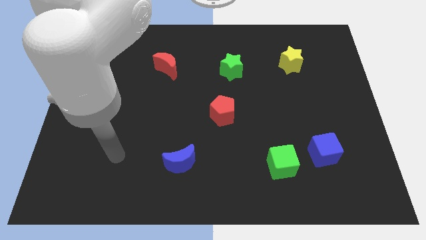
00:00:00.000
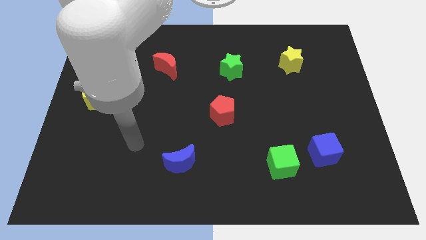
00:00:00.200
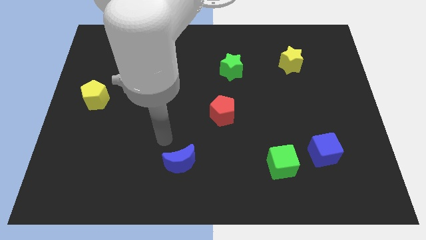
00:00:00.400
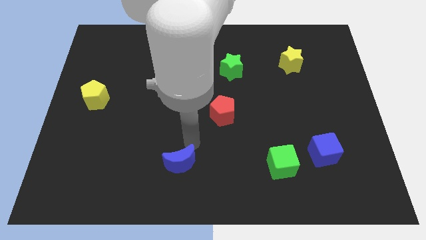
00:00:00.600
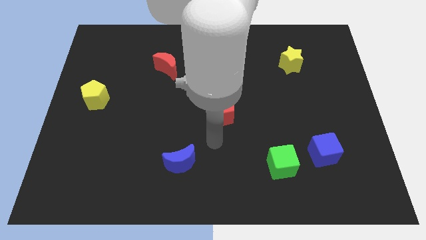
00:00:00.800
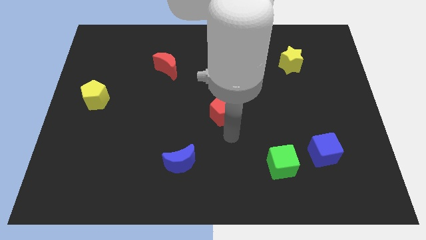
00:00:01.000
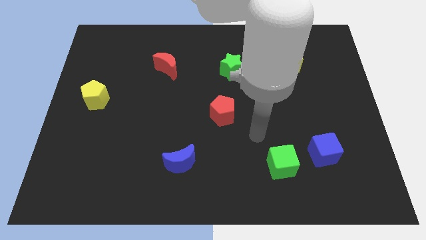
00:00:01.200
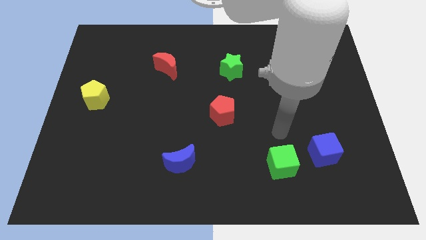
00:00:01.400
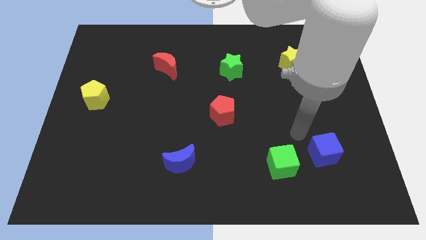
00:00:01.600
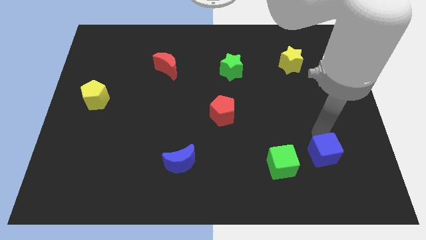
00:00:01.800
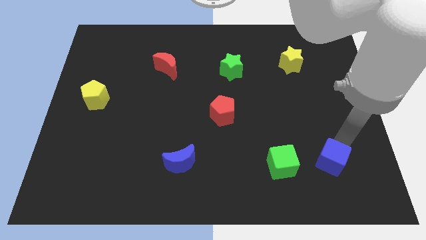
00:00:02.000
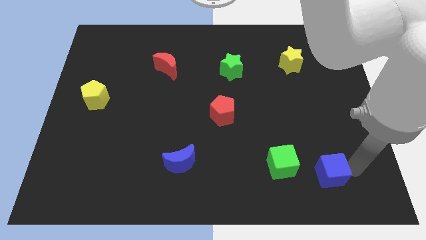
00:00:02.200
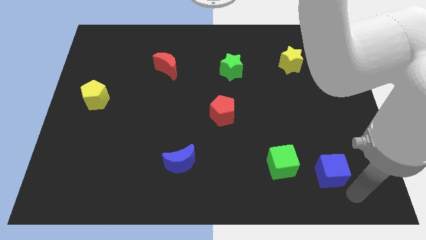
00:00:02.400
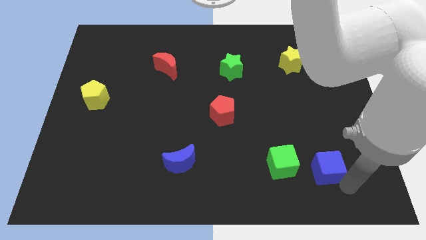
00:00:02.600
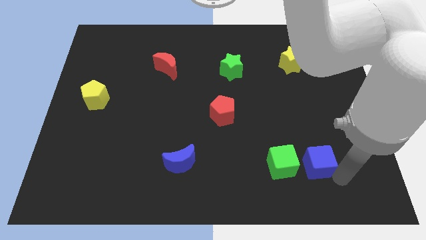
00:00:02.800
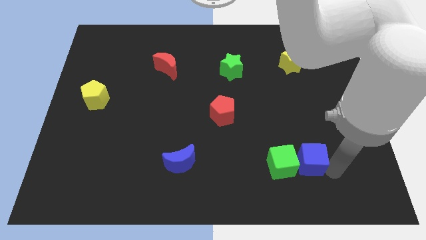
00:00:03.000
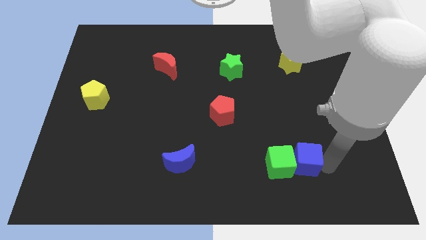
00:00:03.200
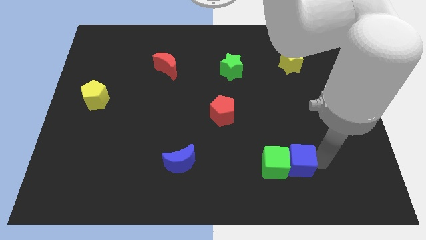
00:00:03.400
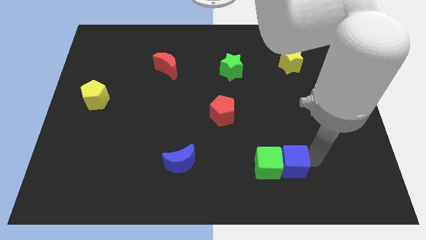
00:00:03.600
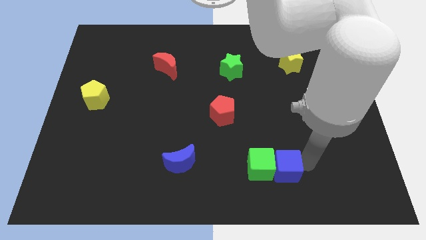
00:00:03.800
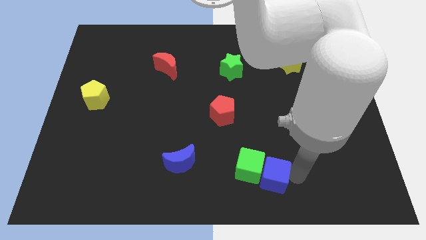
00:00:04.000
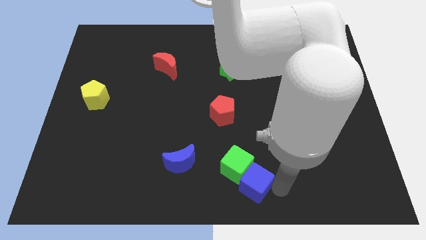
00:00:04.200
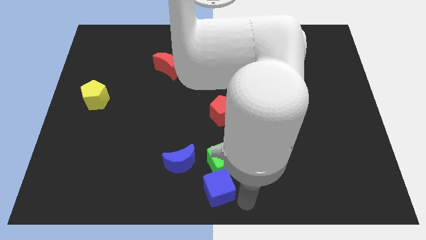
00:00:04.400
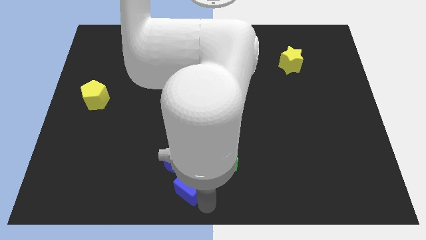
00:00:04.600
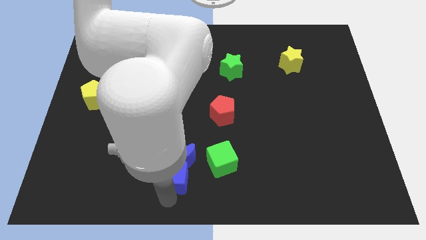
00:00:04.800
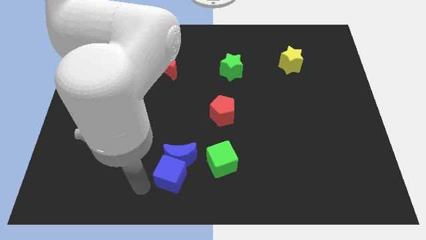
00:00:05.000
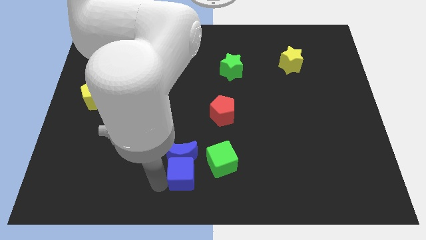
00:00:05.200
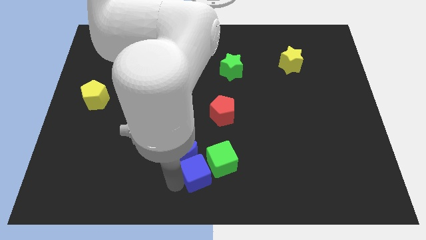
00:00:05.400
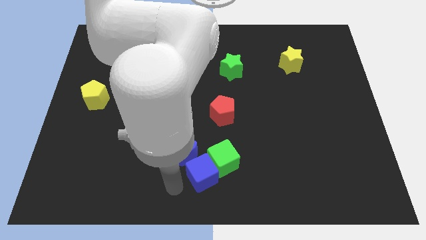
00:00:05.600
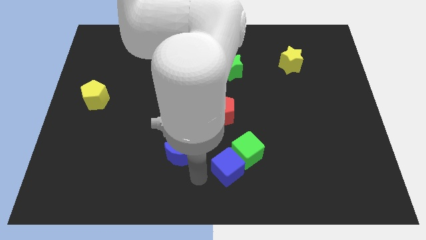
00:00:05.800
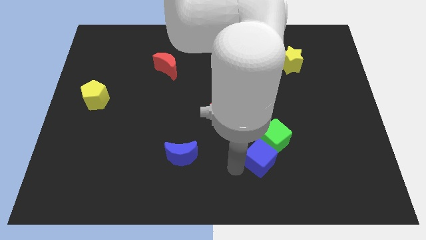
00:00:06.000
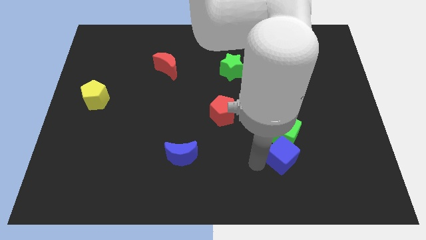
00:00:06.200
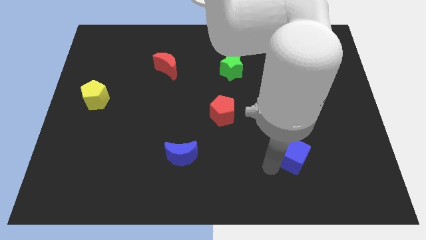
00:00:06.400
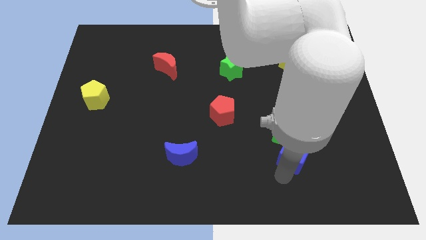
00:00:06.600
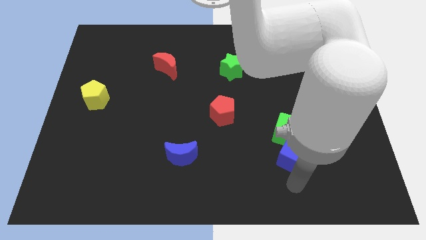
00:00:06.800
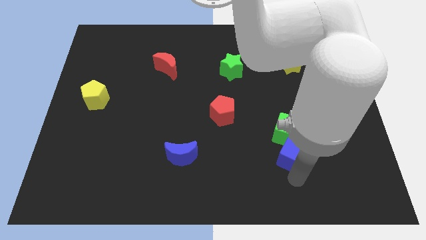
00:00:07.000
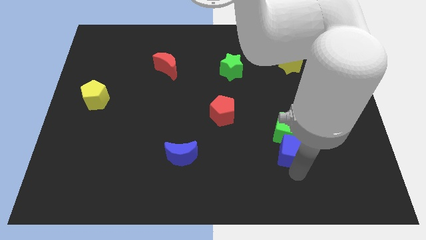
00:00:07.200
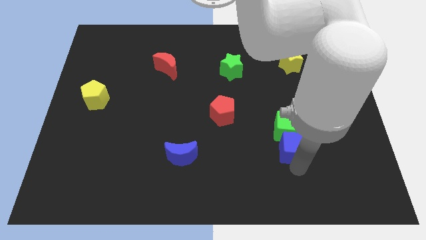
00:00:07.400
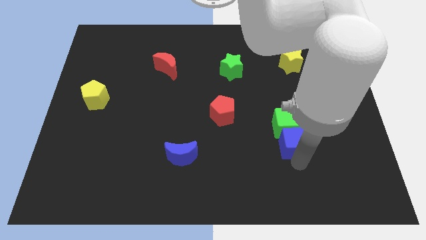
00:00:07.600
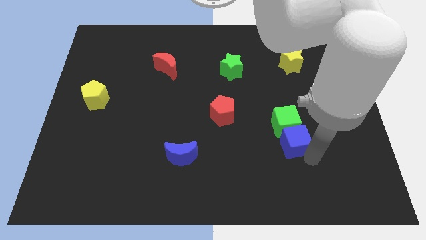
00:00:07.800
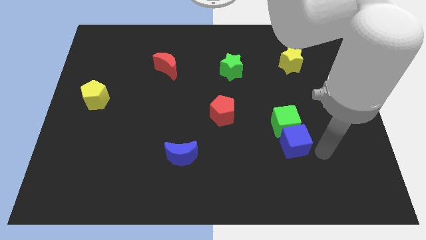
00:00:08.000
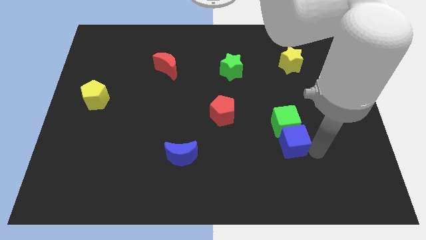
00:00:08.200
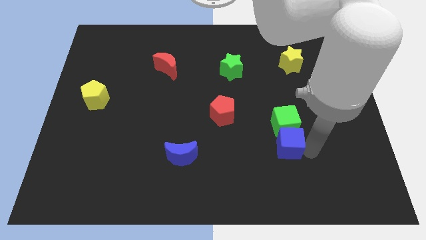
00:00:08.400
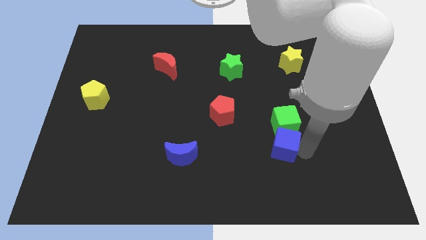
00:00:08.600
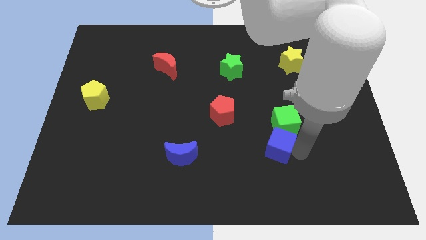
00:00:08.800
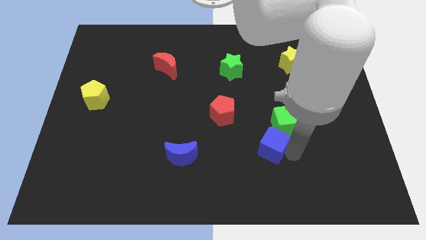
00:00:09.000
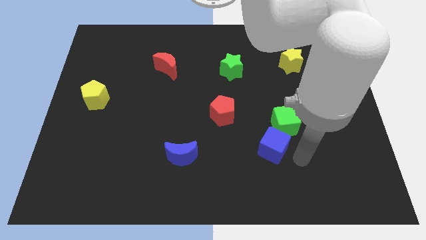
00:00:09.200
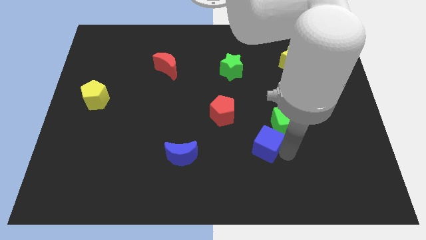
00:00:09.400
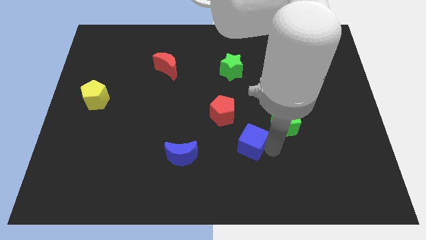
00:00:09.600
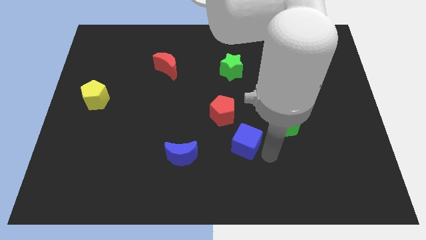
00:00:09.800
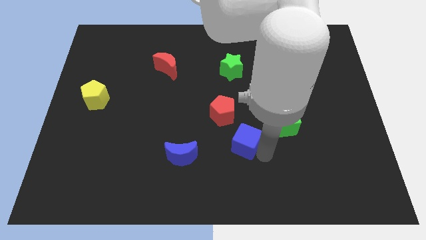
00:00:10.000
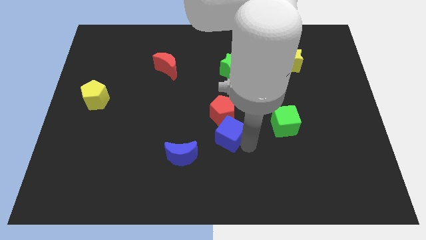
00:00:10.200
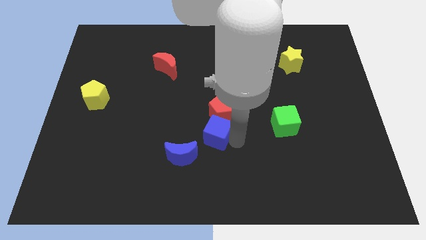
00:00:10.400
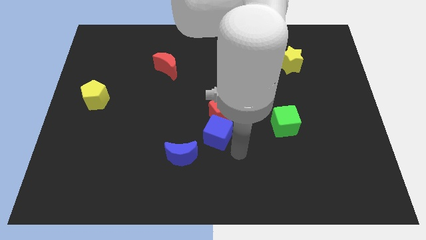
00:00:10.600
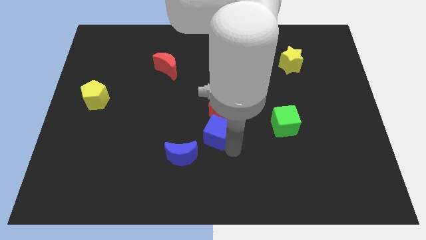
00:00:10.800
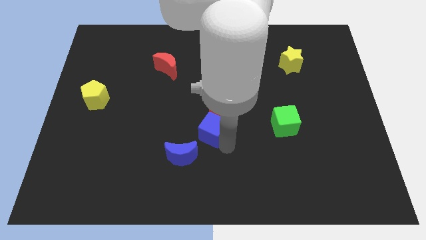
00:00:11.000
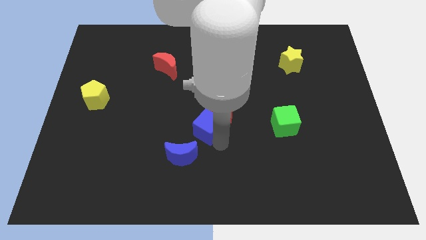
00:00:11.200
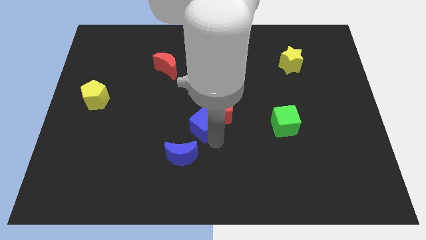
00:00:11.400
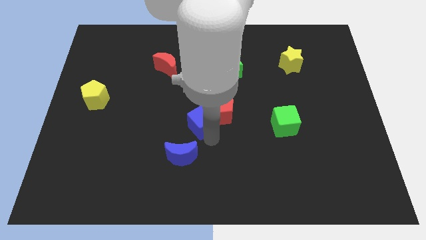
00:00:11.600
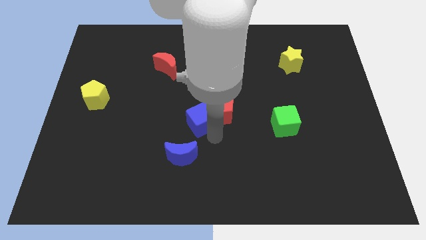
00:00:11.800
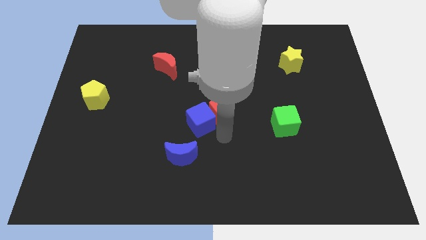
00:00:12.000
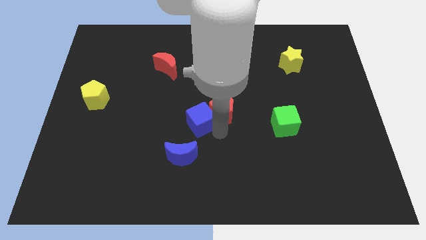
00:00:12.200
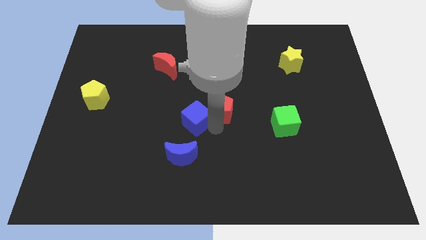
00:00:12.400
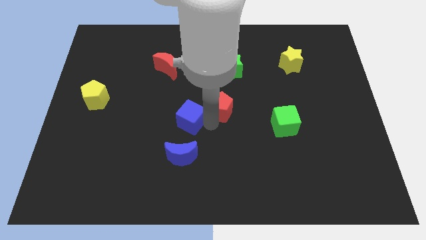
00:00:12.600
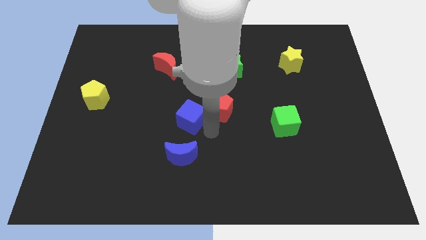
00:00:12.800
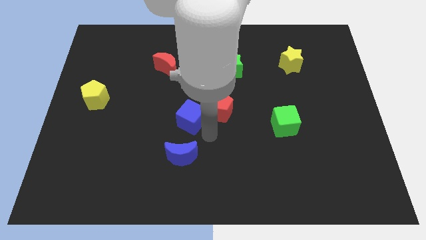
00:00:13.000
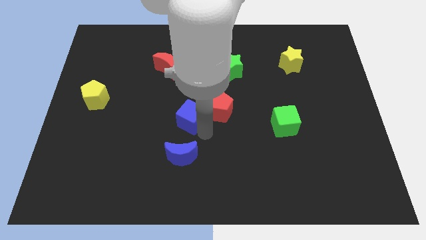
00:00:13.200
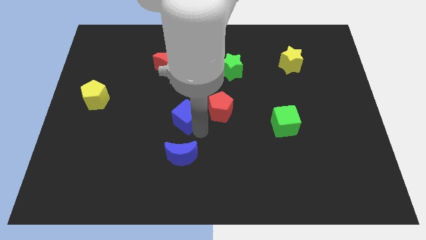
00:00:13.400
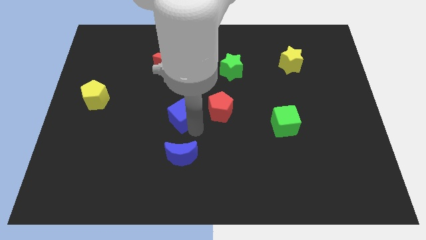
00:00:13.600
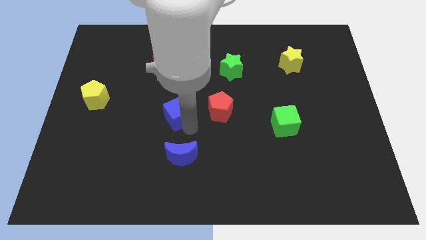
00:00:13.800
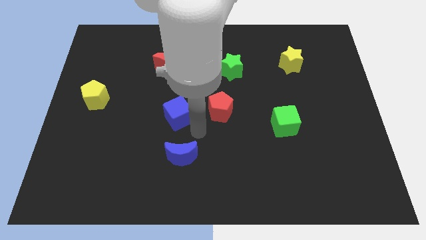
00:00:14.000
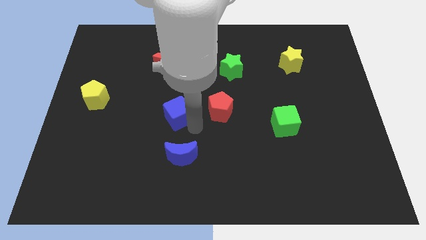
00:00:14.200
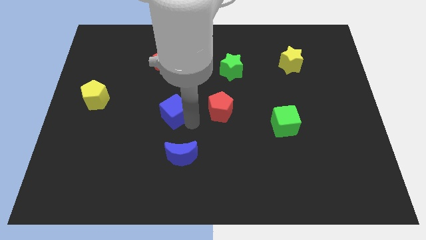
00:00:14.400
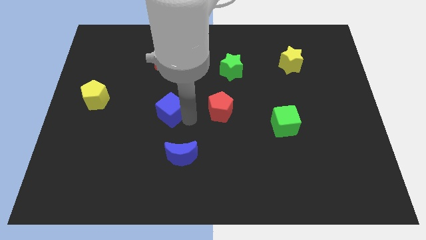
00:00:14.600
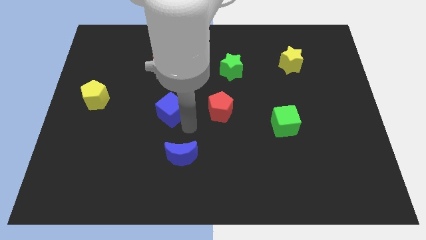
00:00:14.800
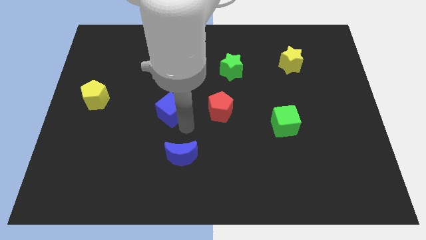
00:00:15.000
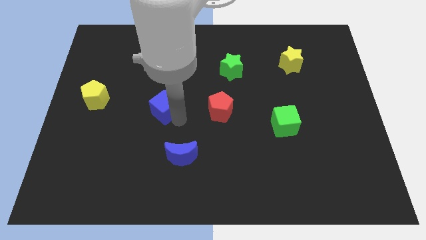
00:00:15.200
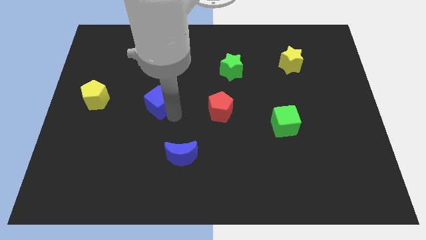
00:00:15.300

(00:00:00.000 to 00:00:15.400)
put the blue cube to the right side of the yellow pentagon
